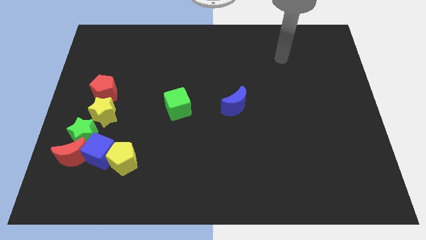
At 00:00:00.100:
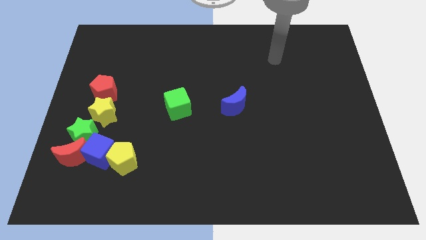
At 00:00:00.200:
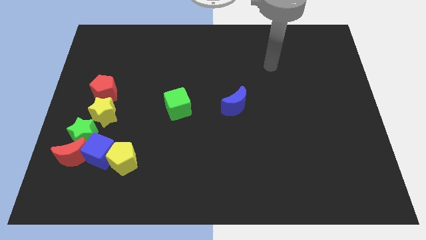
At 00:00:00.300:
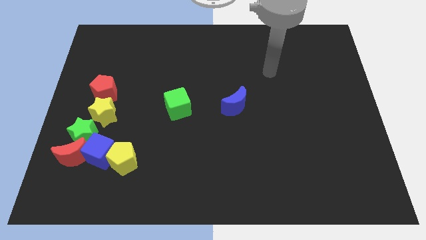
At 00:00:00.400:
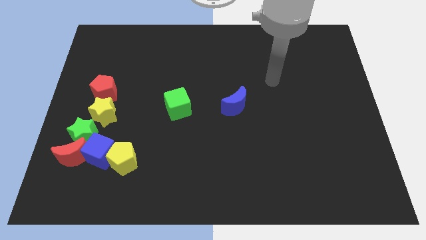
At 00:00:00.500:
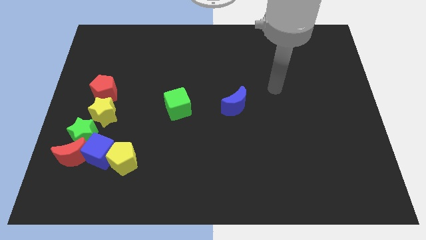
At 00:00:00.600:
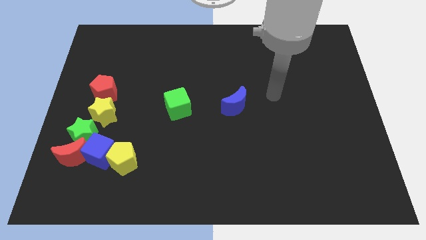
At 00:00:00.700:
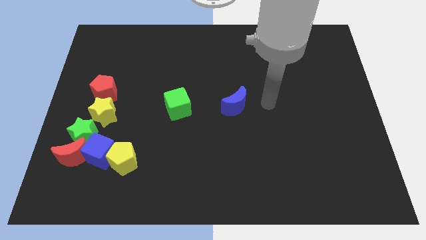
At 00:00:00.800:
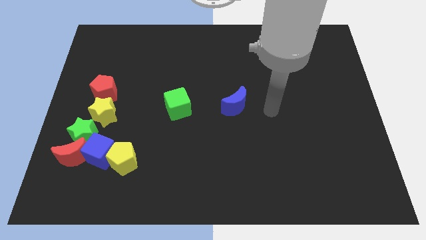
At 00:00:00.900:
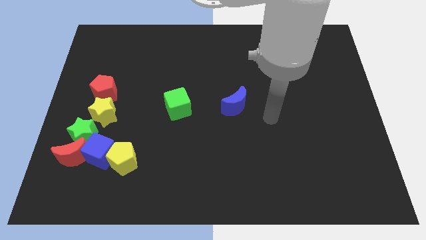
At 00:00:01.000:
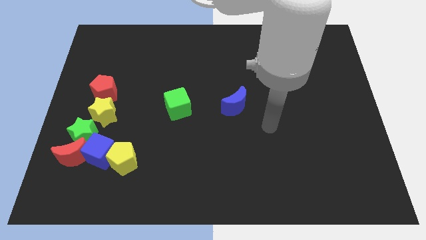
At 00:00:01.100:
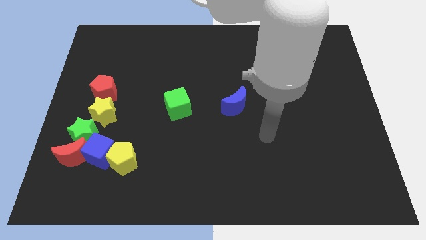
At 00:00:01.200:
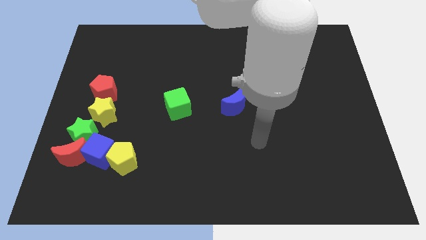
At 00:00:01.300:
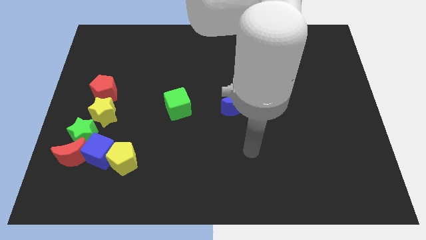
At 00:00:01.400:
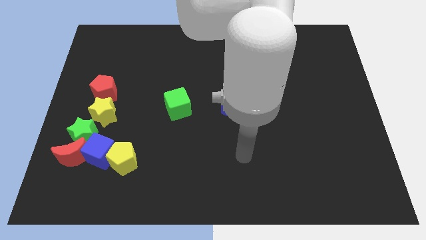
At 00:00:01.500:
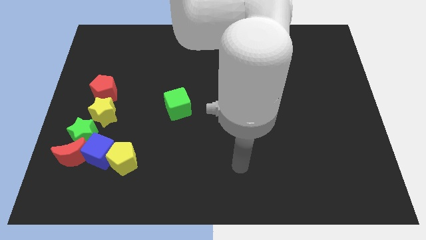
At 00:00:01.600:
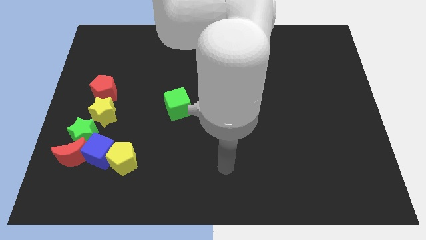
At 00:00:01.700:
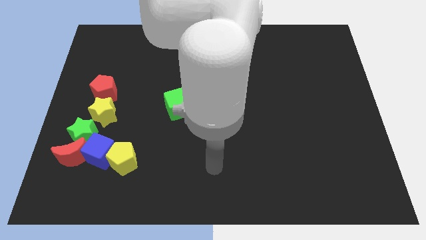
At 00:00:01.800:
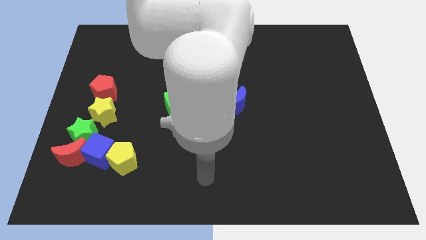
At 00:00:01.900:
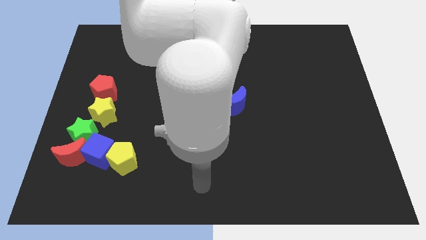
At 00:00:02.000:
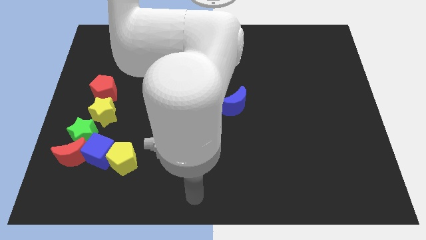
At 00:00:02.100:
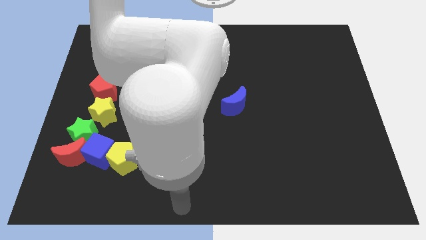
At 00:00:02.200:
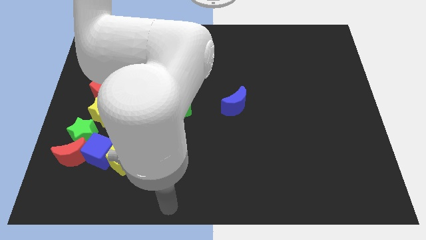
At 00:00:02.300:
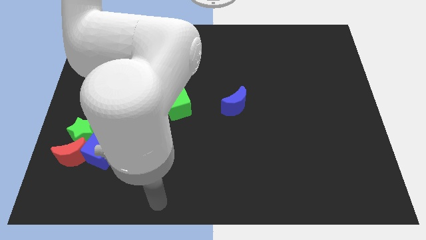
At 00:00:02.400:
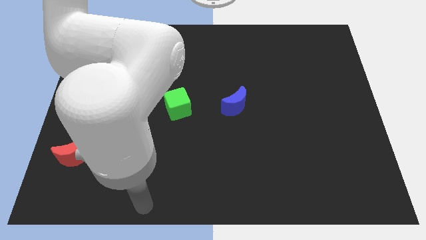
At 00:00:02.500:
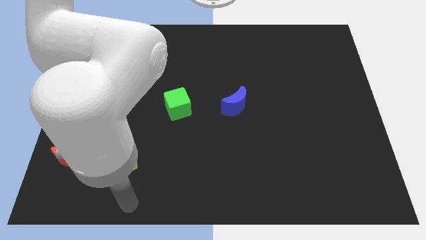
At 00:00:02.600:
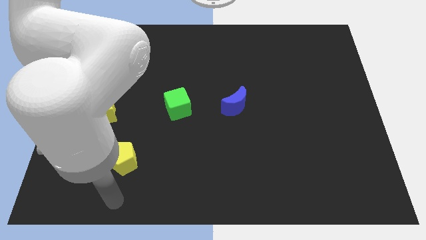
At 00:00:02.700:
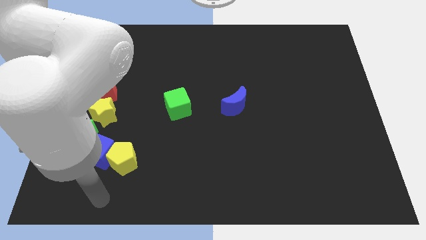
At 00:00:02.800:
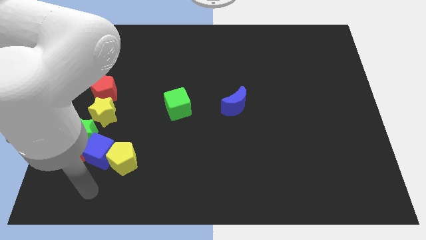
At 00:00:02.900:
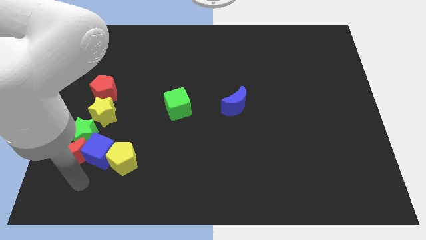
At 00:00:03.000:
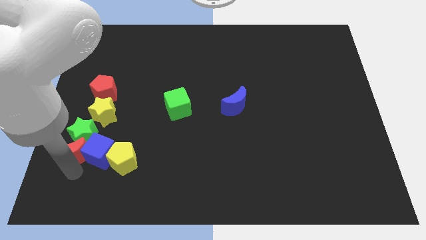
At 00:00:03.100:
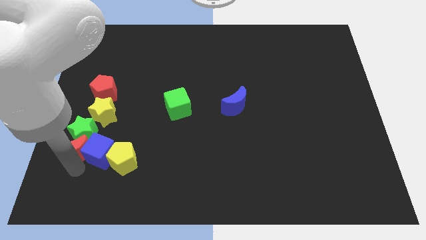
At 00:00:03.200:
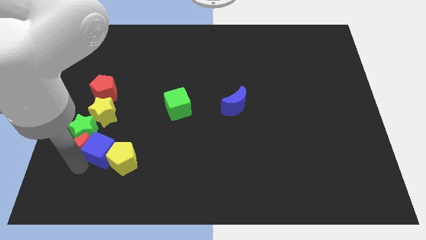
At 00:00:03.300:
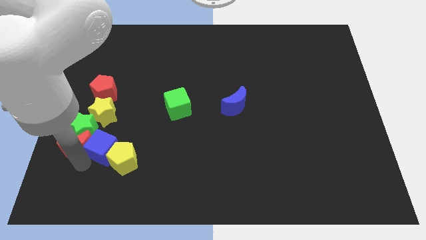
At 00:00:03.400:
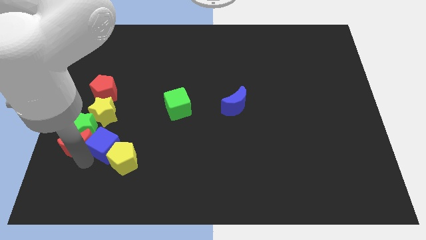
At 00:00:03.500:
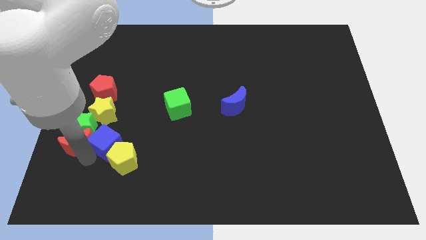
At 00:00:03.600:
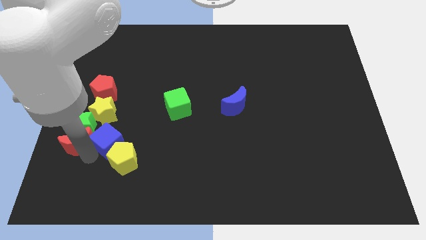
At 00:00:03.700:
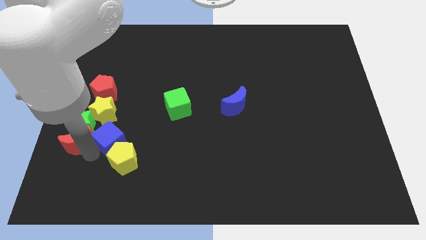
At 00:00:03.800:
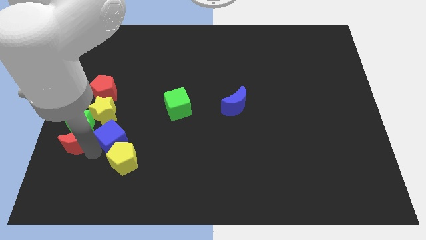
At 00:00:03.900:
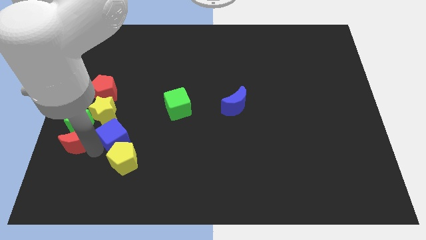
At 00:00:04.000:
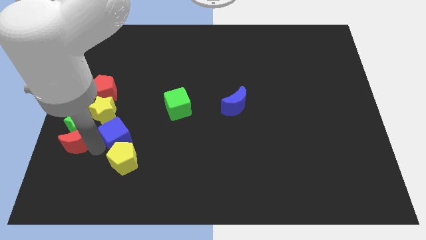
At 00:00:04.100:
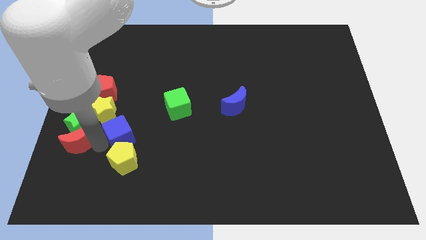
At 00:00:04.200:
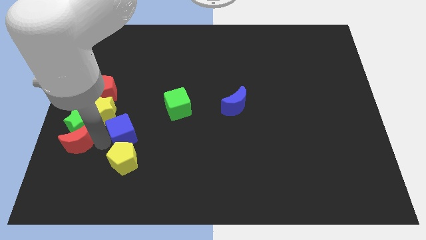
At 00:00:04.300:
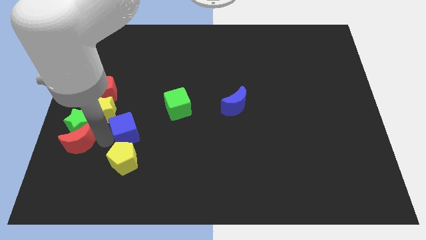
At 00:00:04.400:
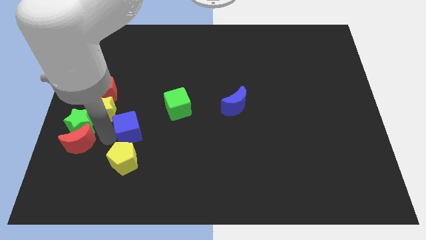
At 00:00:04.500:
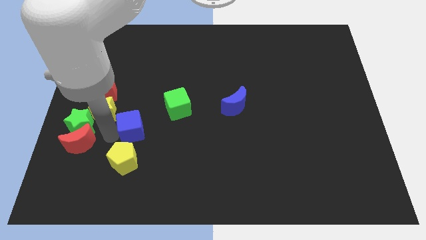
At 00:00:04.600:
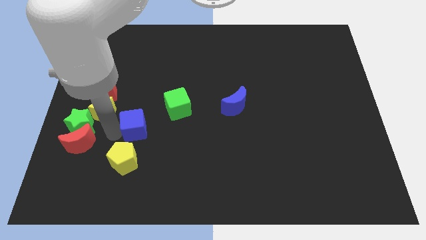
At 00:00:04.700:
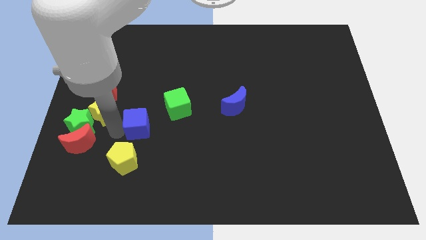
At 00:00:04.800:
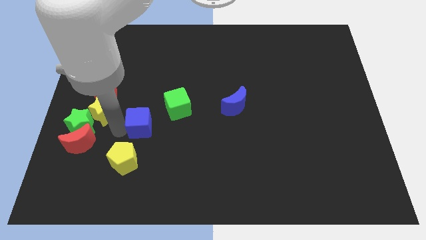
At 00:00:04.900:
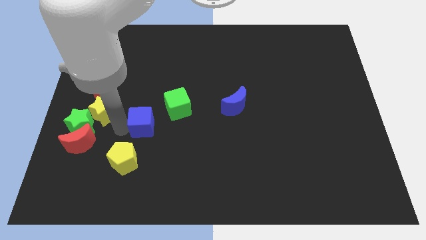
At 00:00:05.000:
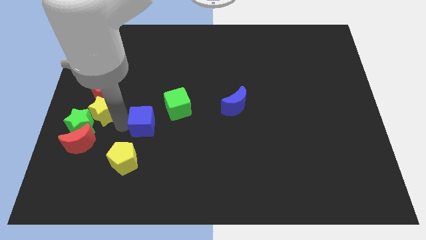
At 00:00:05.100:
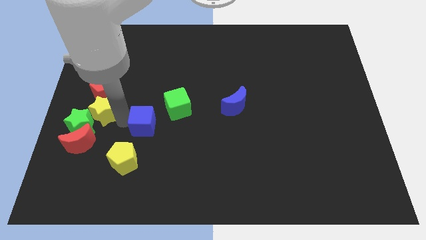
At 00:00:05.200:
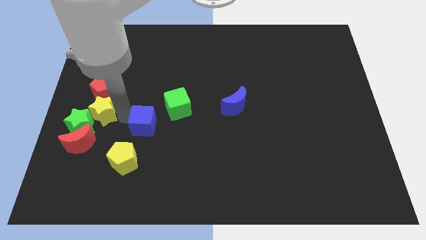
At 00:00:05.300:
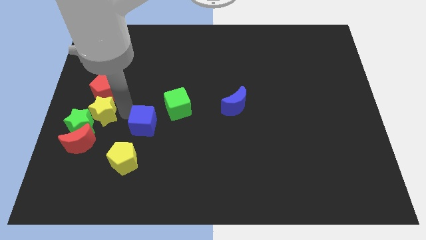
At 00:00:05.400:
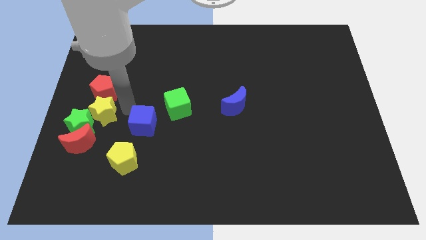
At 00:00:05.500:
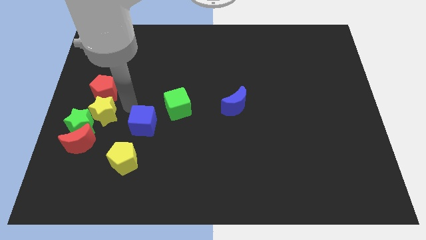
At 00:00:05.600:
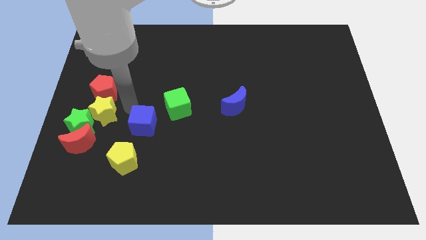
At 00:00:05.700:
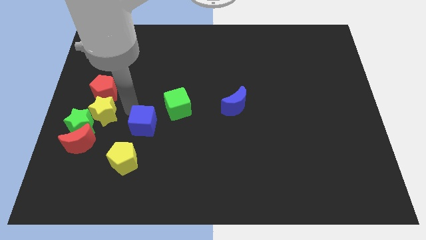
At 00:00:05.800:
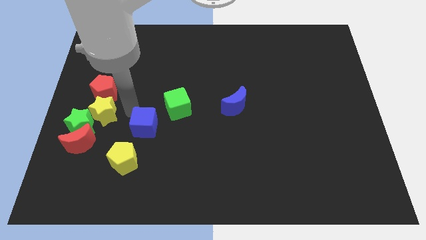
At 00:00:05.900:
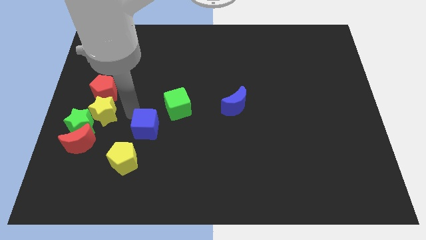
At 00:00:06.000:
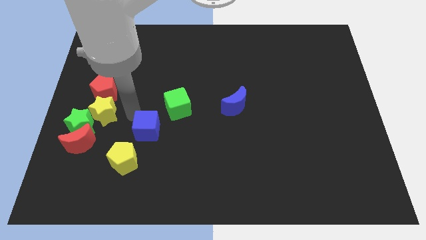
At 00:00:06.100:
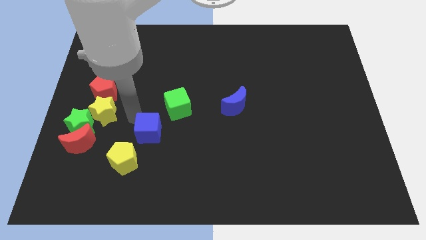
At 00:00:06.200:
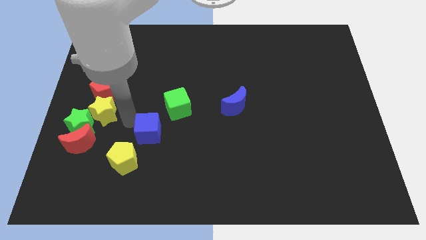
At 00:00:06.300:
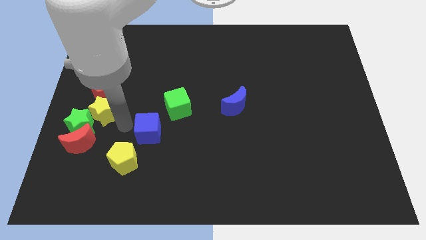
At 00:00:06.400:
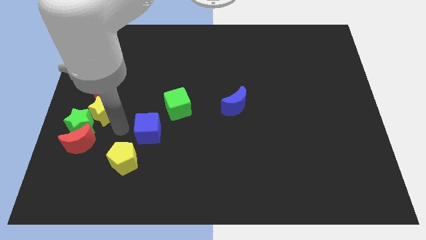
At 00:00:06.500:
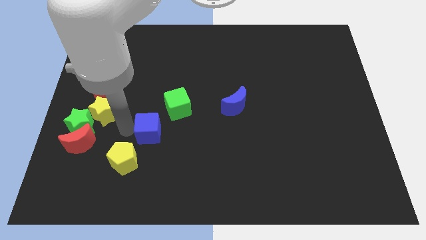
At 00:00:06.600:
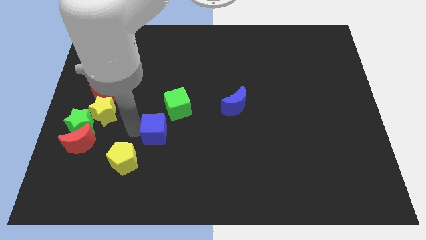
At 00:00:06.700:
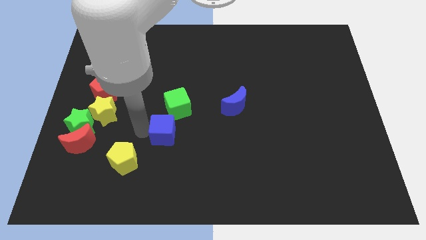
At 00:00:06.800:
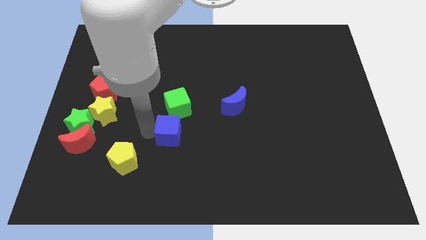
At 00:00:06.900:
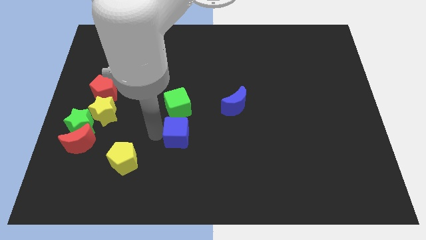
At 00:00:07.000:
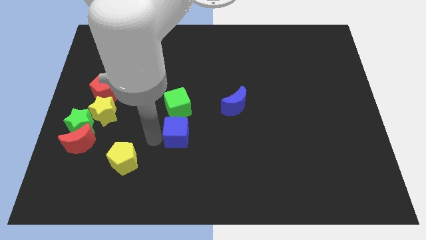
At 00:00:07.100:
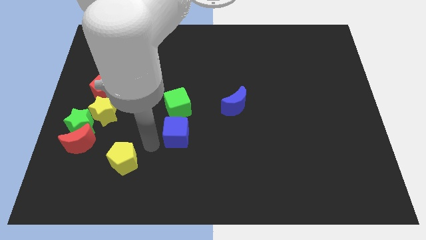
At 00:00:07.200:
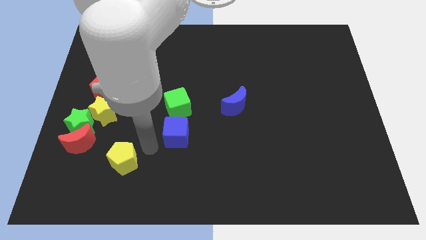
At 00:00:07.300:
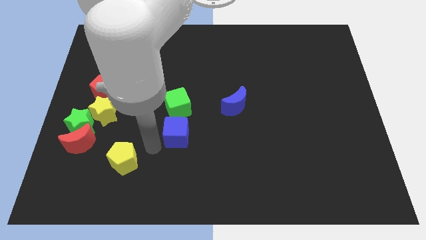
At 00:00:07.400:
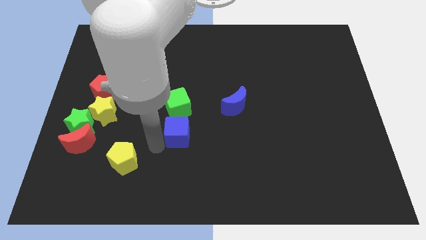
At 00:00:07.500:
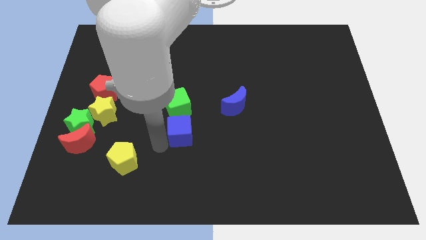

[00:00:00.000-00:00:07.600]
put the blue cube diagonally down and to the right of the green cube
